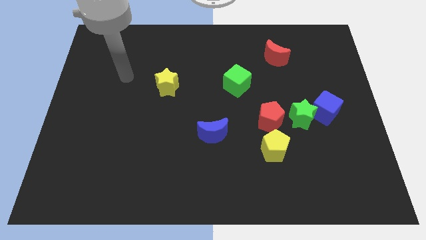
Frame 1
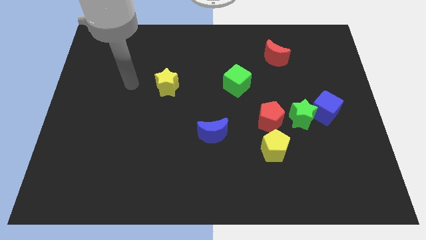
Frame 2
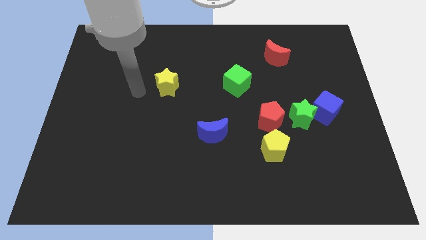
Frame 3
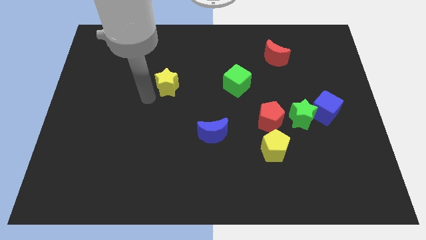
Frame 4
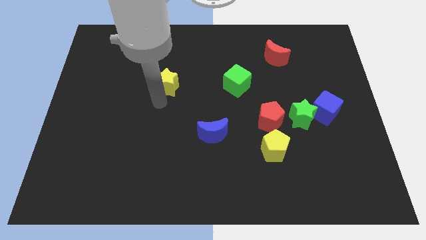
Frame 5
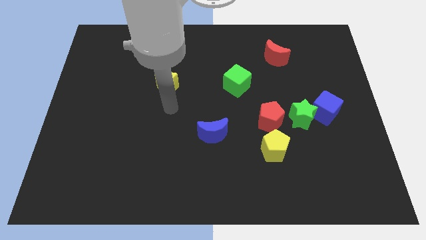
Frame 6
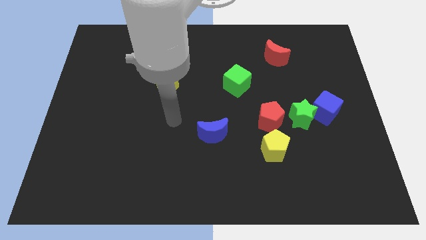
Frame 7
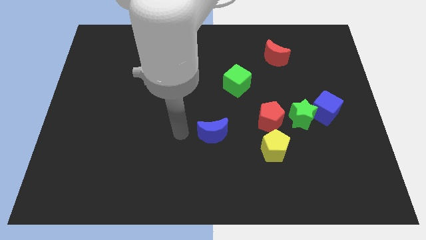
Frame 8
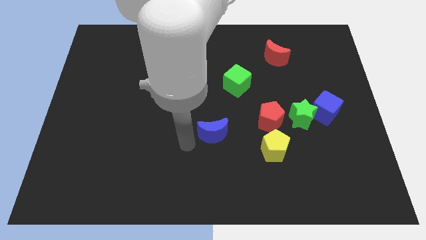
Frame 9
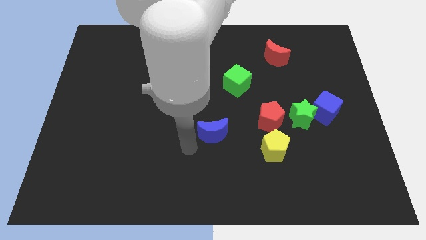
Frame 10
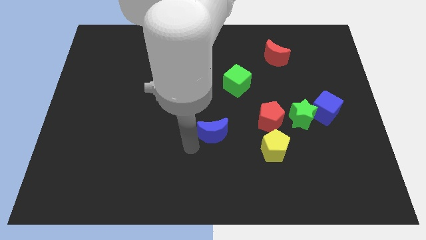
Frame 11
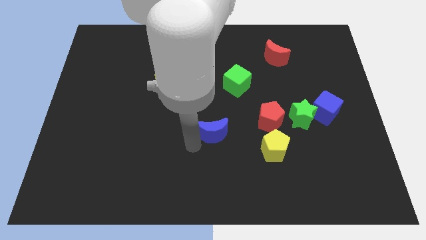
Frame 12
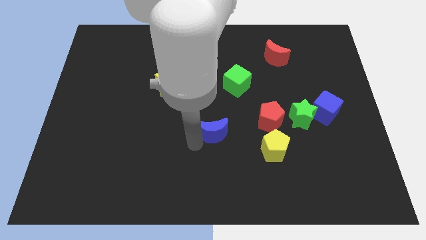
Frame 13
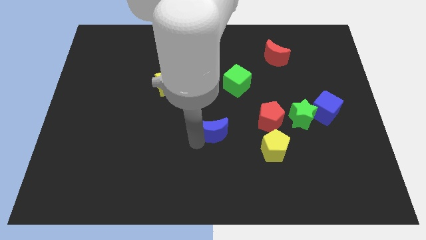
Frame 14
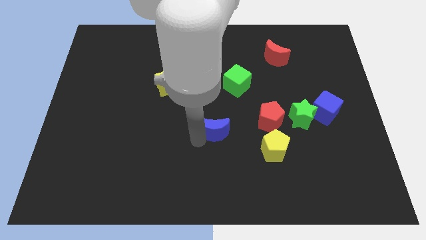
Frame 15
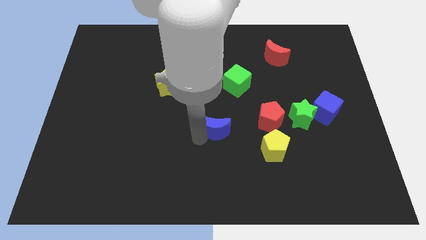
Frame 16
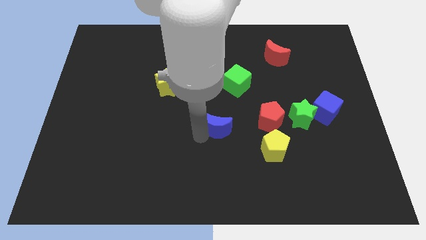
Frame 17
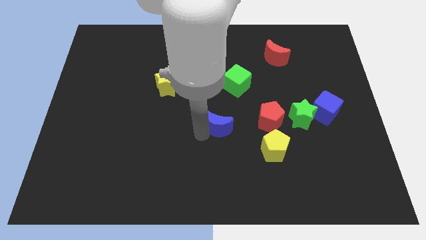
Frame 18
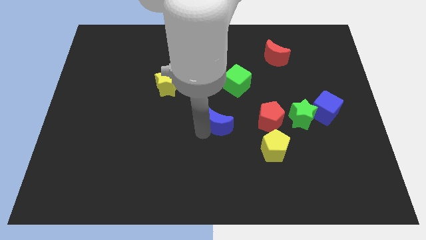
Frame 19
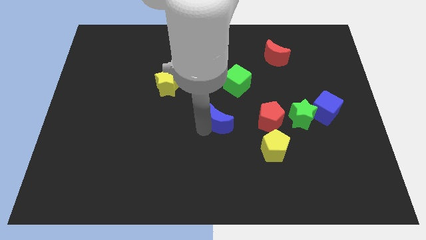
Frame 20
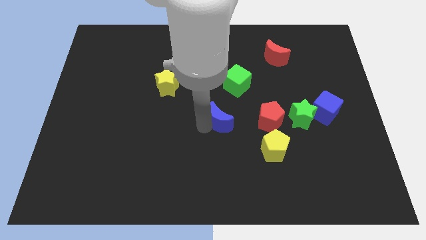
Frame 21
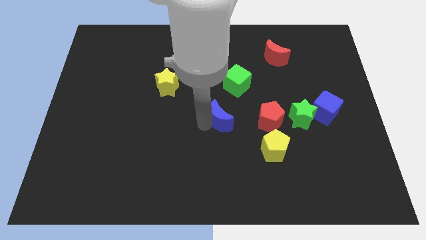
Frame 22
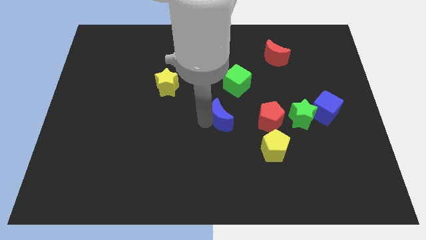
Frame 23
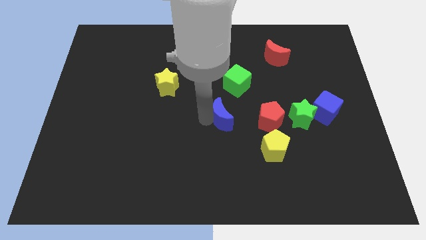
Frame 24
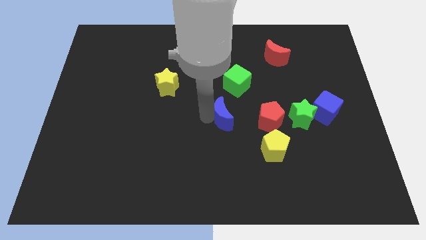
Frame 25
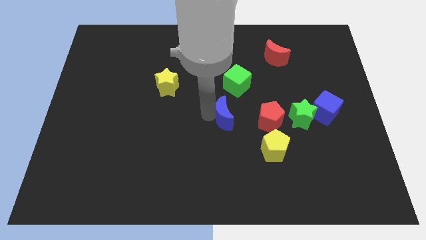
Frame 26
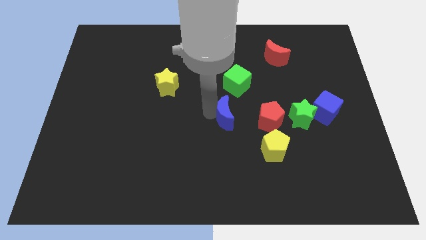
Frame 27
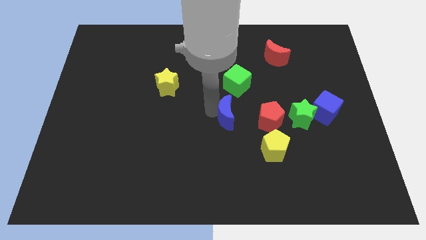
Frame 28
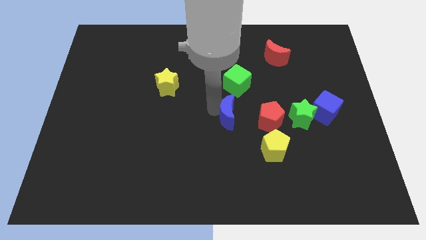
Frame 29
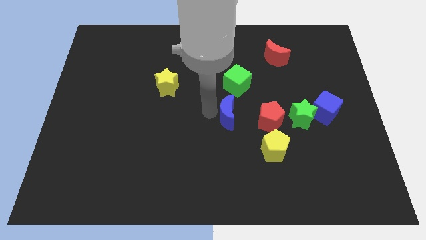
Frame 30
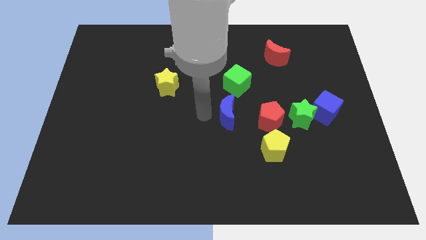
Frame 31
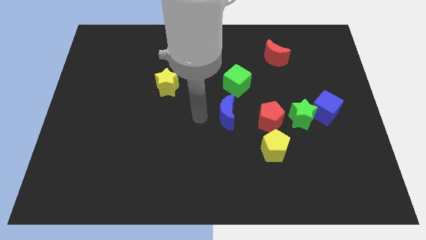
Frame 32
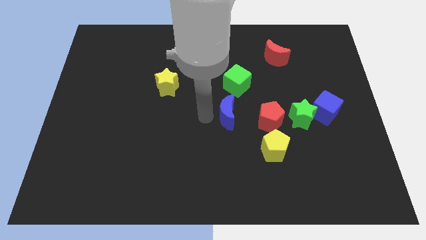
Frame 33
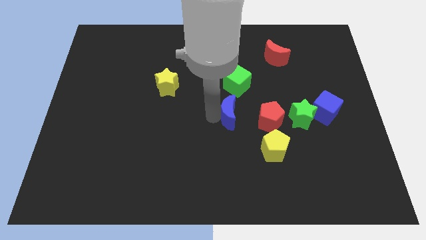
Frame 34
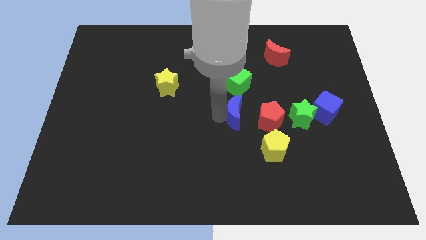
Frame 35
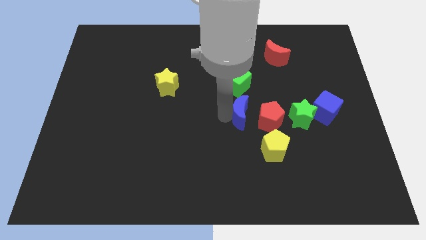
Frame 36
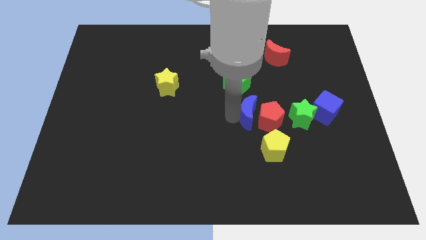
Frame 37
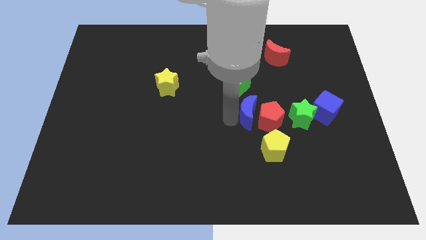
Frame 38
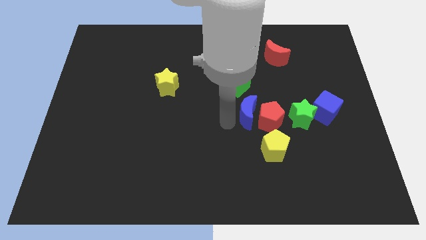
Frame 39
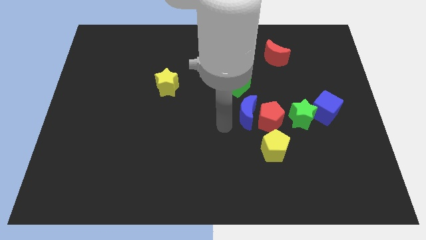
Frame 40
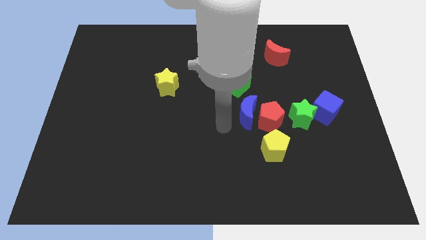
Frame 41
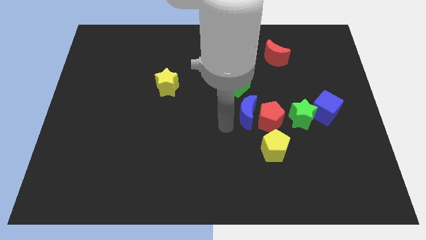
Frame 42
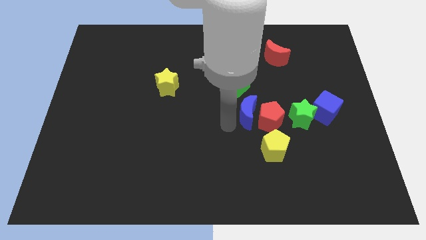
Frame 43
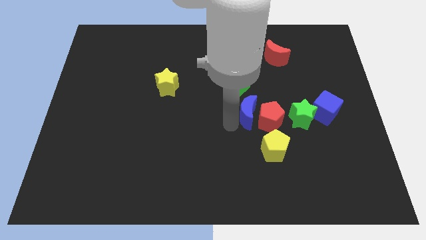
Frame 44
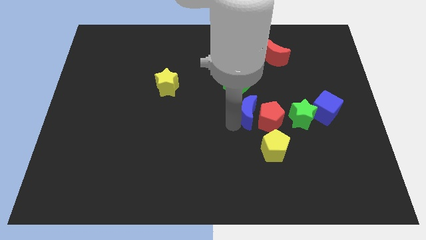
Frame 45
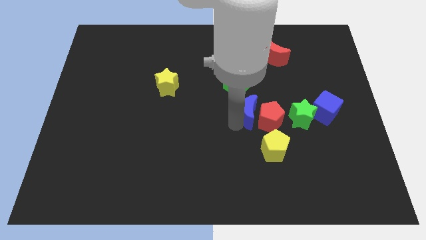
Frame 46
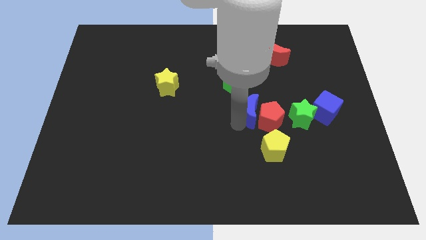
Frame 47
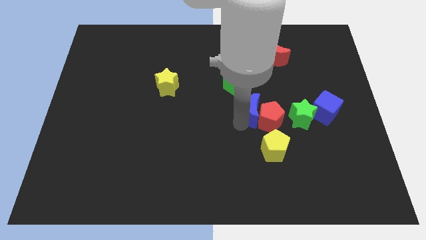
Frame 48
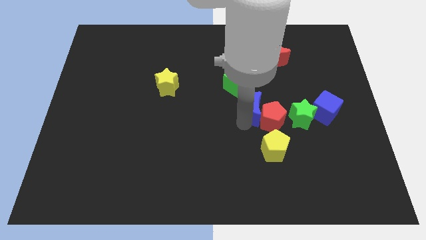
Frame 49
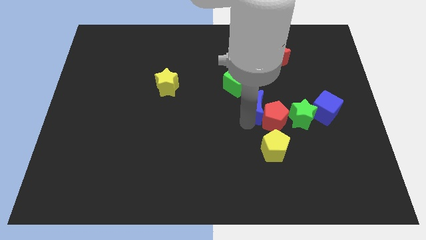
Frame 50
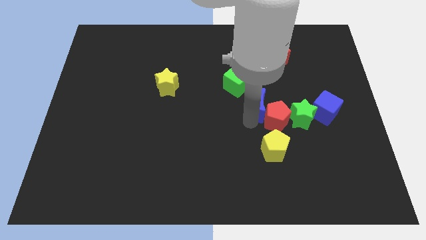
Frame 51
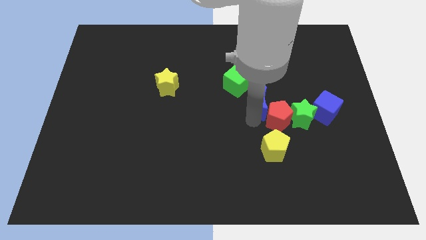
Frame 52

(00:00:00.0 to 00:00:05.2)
push the blue moon to the top left of the green star
